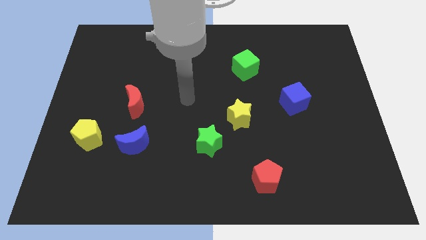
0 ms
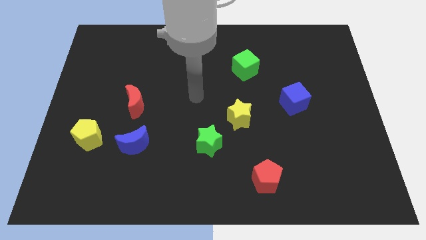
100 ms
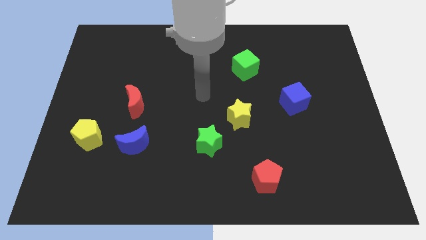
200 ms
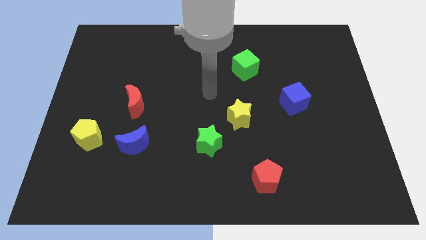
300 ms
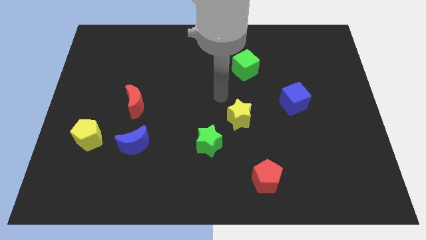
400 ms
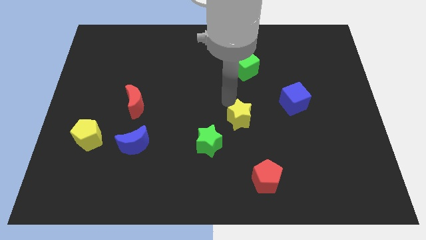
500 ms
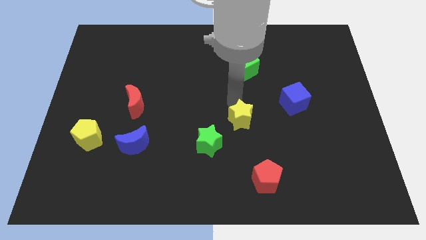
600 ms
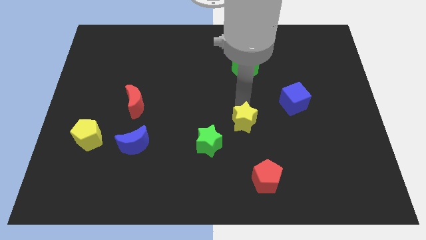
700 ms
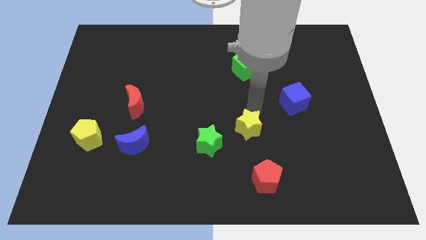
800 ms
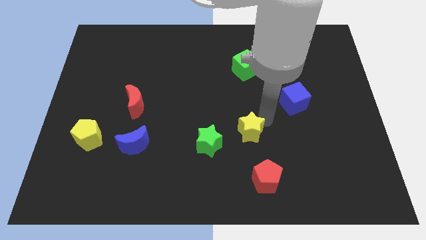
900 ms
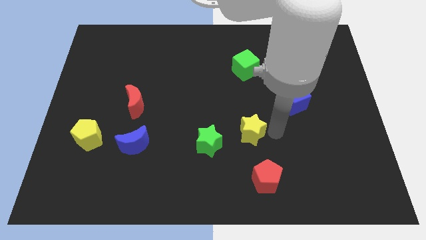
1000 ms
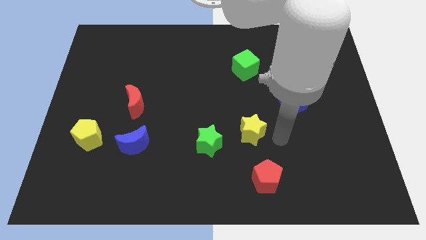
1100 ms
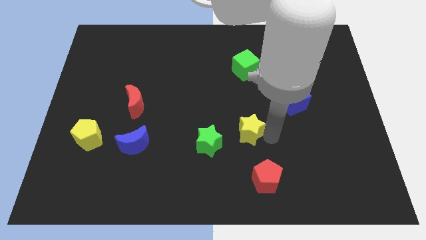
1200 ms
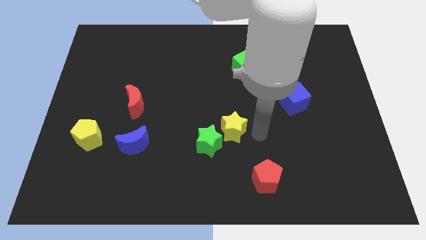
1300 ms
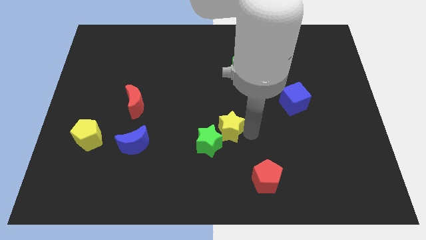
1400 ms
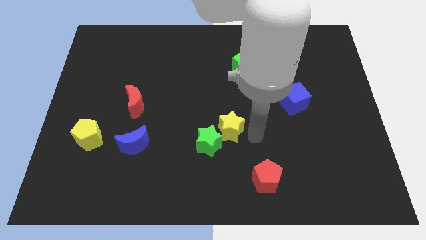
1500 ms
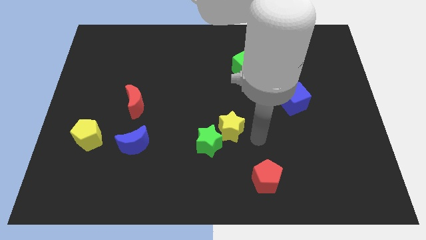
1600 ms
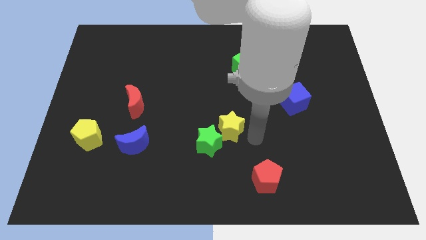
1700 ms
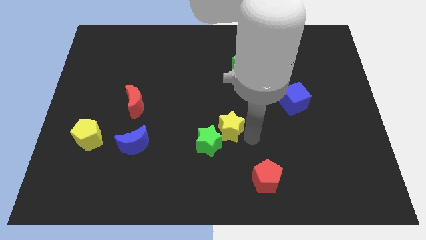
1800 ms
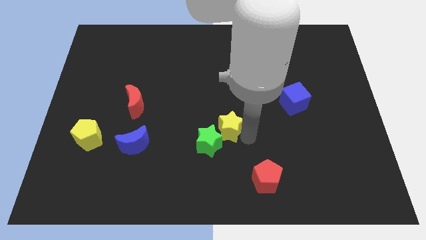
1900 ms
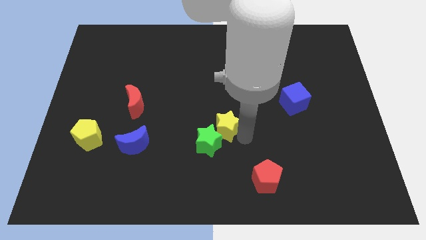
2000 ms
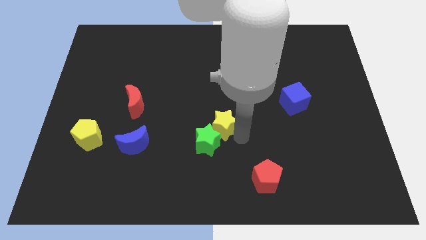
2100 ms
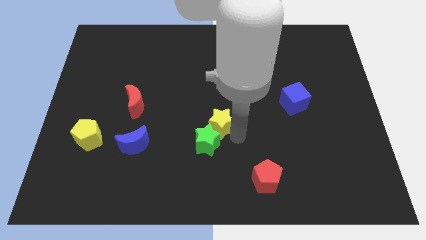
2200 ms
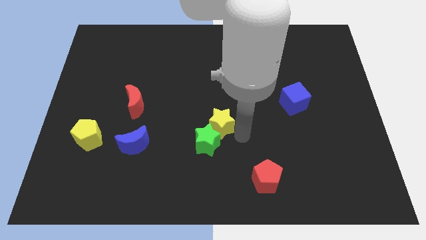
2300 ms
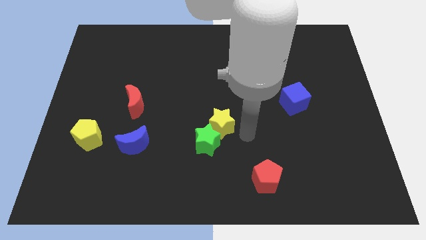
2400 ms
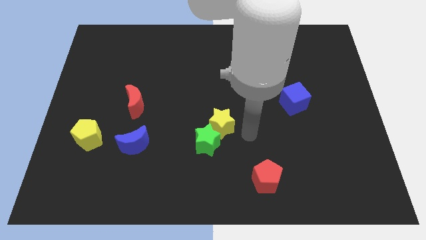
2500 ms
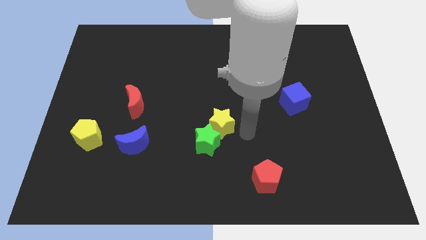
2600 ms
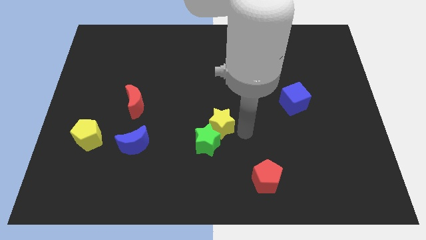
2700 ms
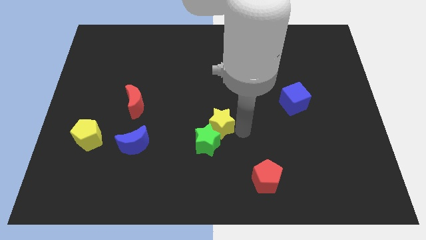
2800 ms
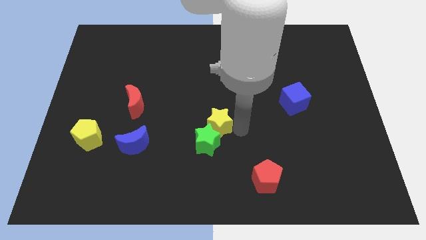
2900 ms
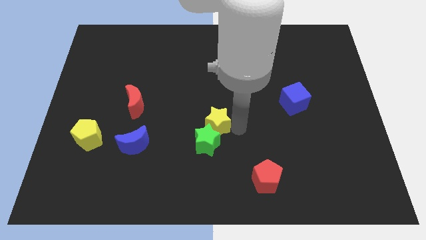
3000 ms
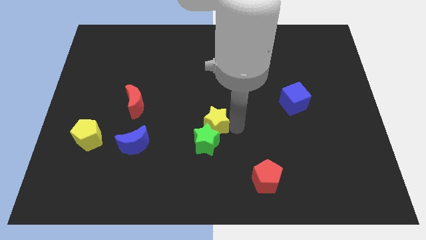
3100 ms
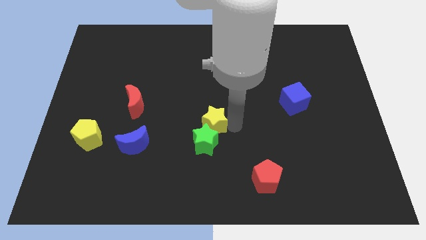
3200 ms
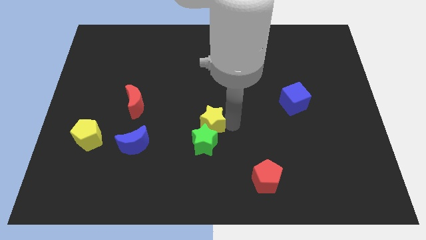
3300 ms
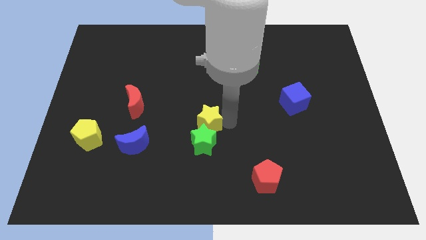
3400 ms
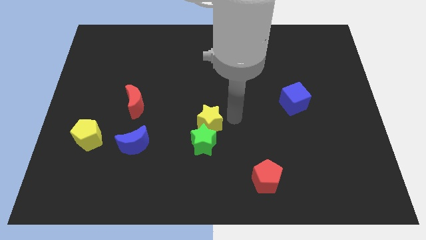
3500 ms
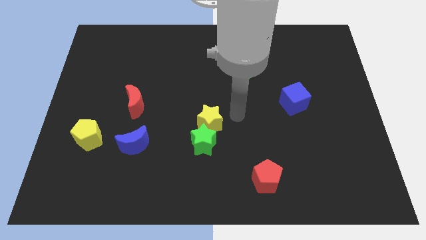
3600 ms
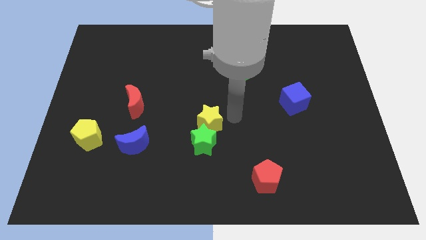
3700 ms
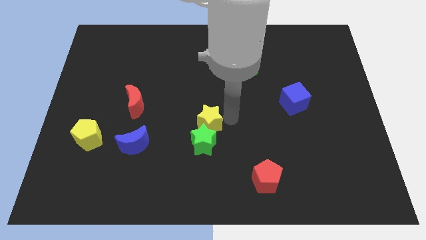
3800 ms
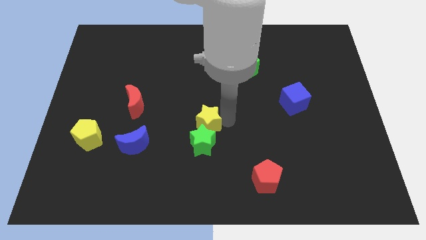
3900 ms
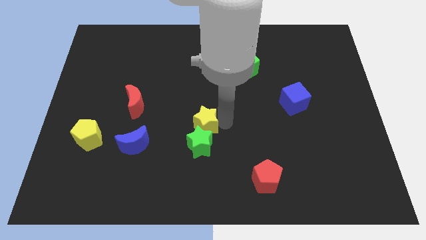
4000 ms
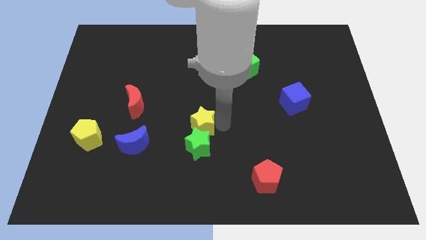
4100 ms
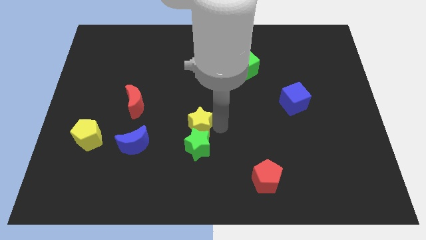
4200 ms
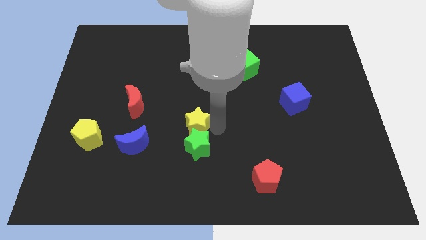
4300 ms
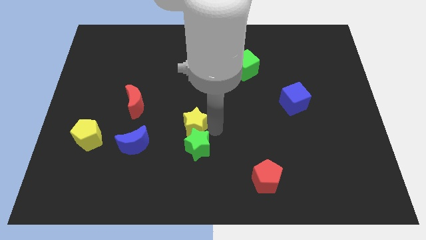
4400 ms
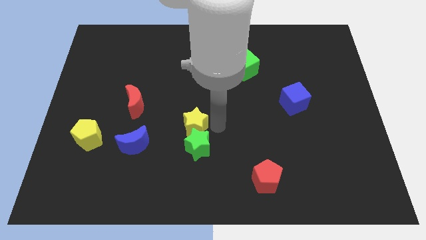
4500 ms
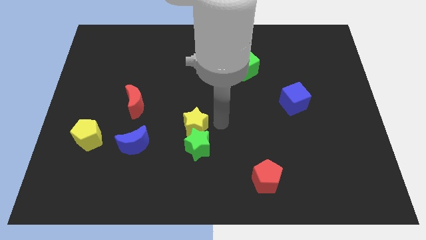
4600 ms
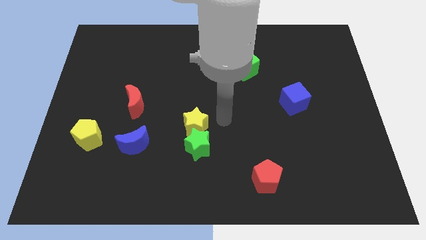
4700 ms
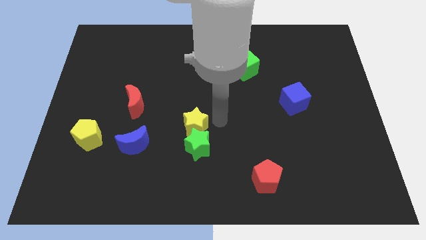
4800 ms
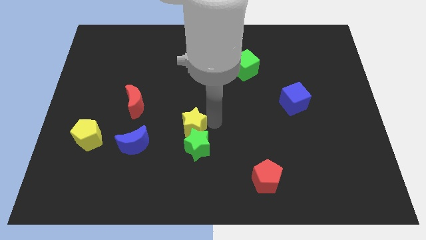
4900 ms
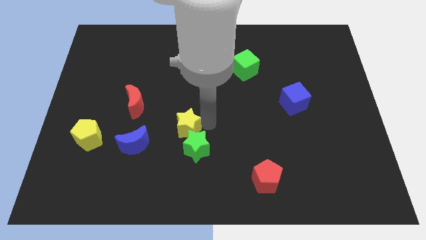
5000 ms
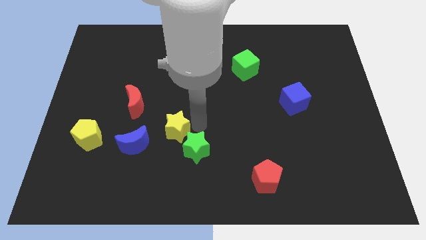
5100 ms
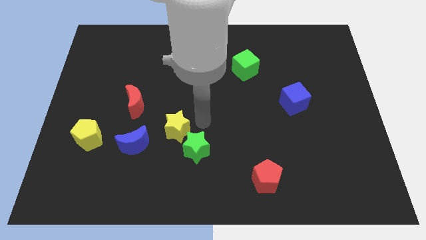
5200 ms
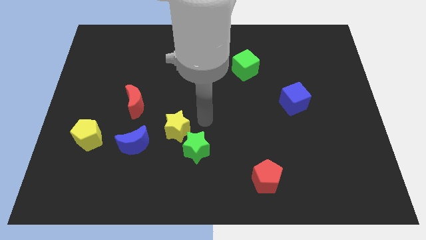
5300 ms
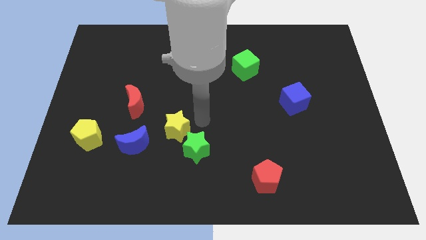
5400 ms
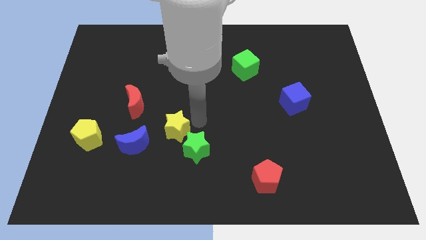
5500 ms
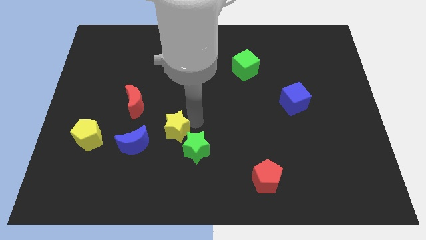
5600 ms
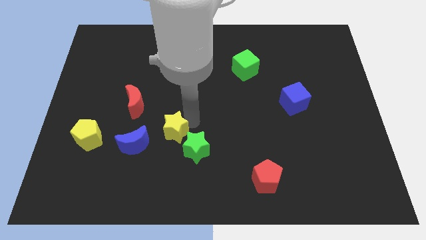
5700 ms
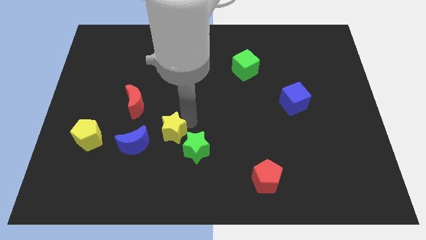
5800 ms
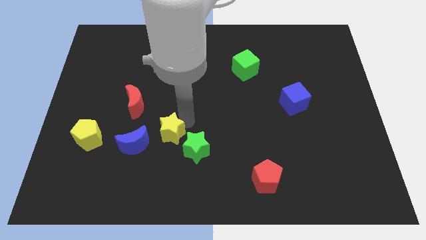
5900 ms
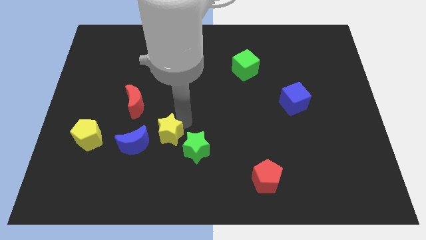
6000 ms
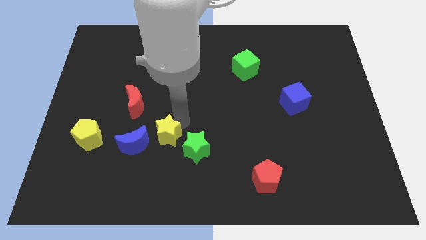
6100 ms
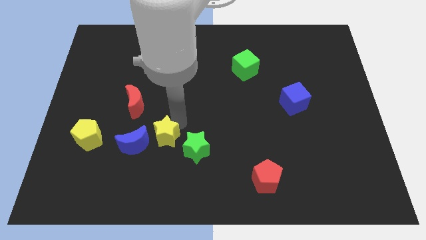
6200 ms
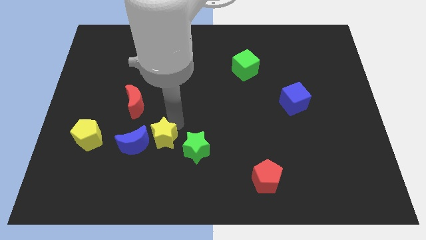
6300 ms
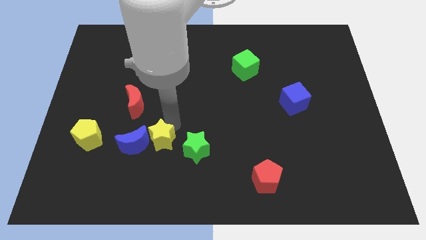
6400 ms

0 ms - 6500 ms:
slide the yellow star next to the blue moon

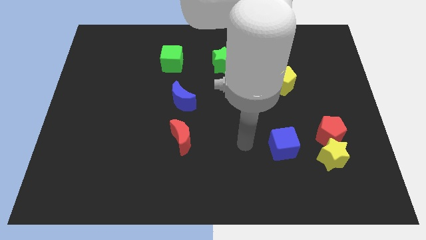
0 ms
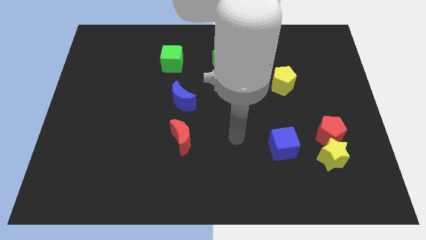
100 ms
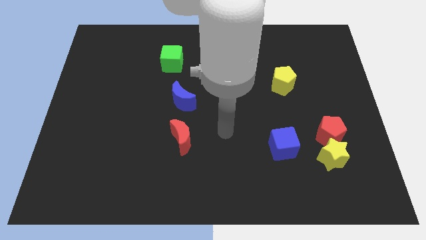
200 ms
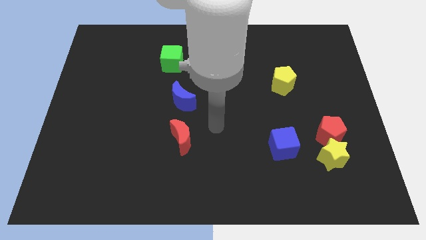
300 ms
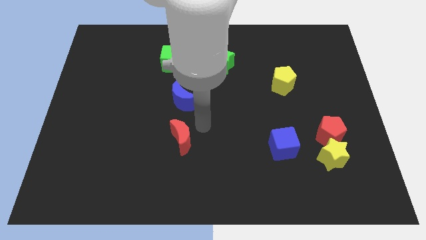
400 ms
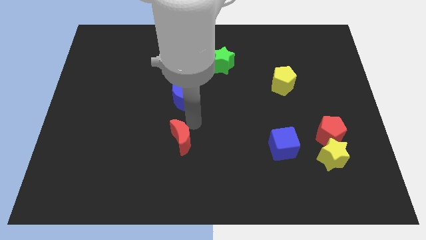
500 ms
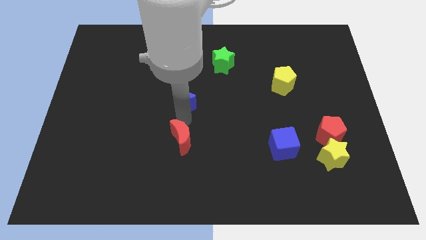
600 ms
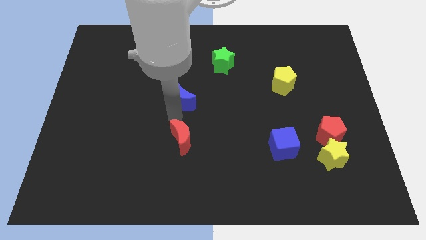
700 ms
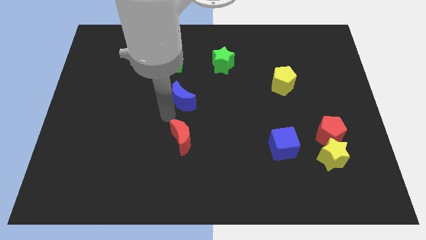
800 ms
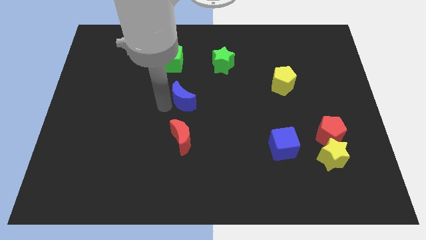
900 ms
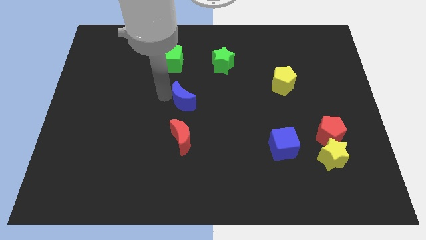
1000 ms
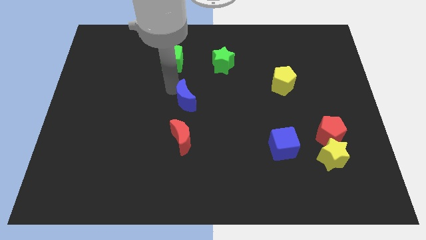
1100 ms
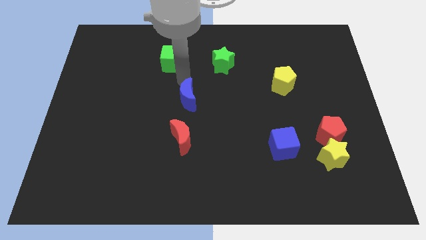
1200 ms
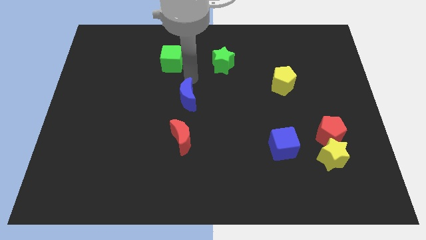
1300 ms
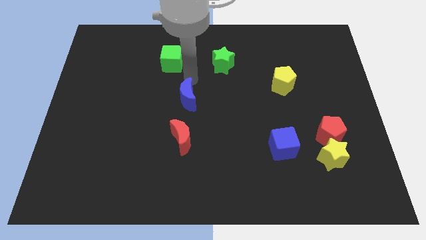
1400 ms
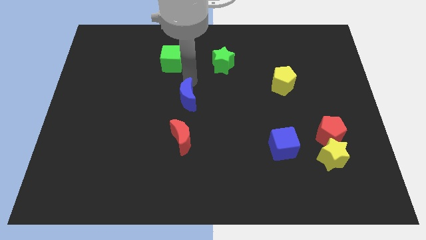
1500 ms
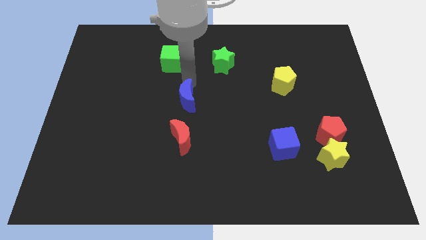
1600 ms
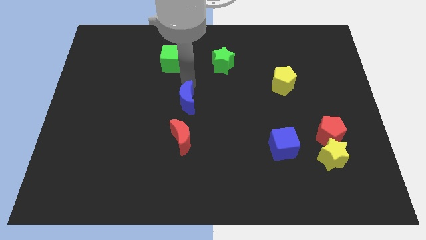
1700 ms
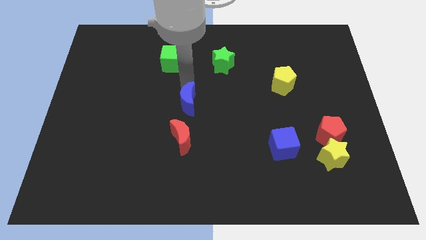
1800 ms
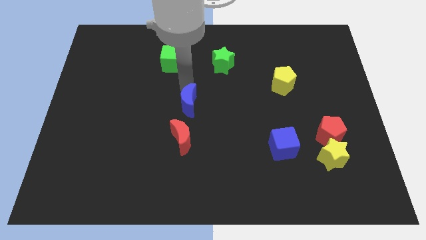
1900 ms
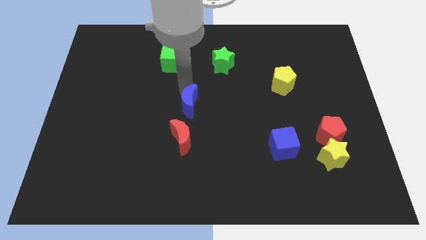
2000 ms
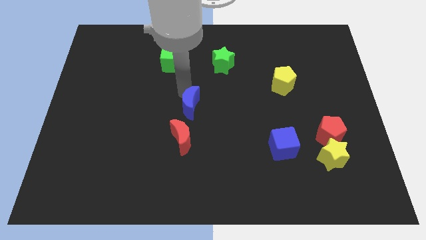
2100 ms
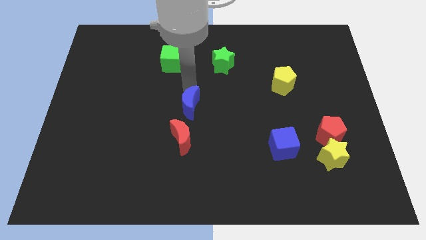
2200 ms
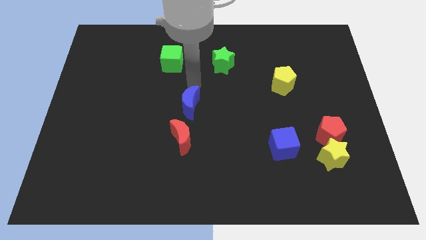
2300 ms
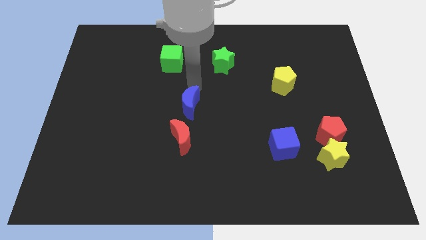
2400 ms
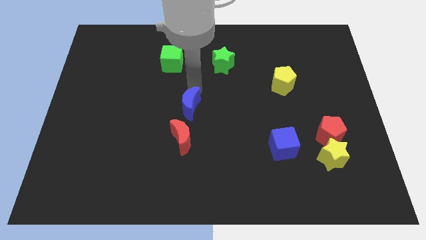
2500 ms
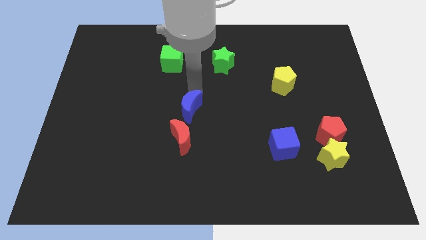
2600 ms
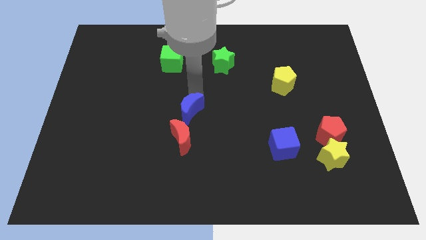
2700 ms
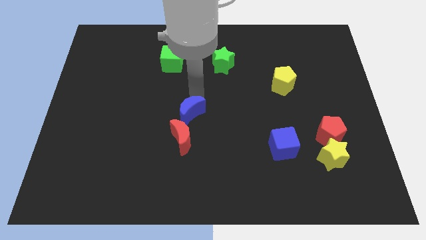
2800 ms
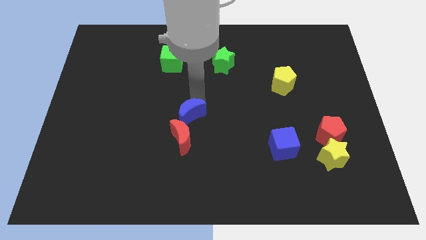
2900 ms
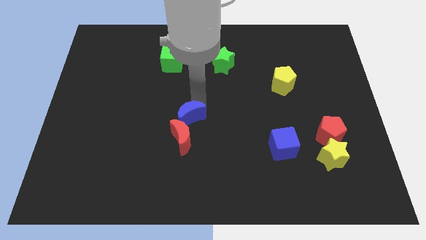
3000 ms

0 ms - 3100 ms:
move the blue moon to the red moon
